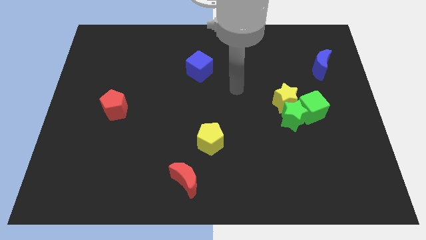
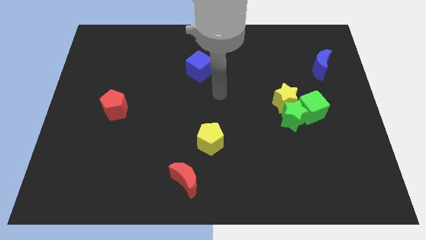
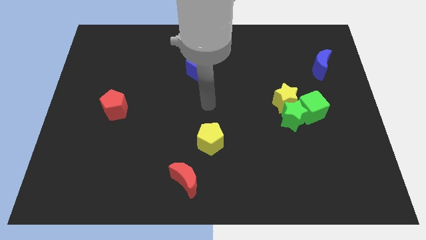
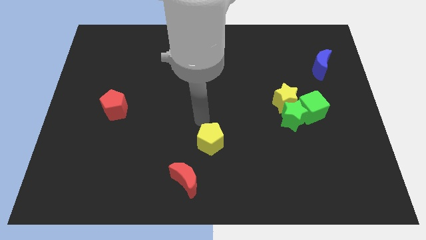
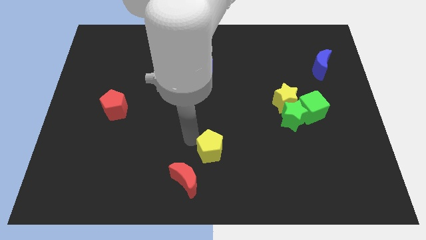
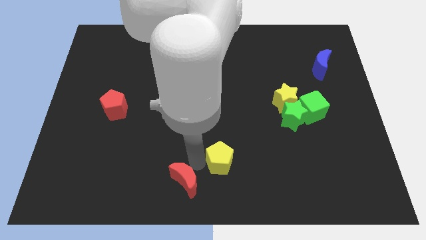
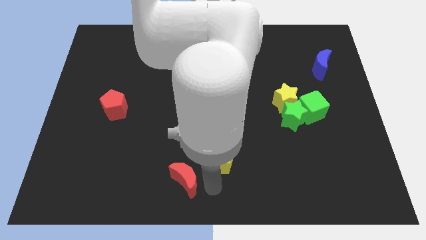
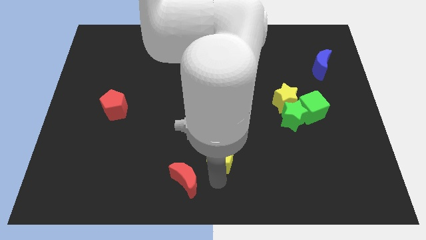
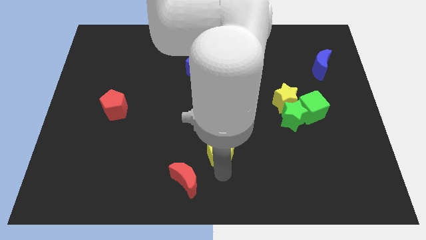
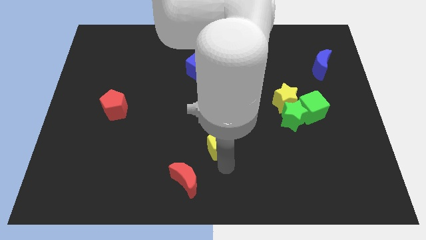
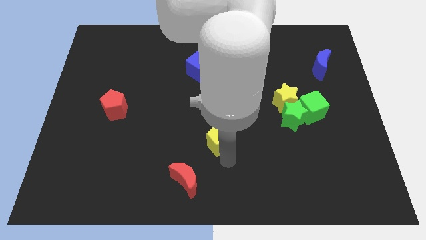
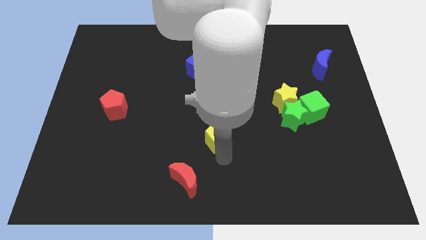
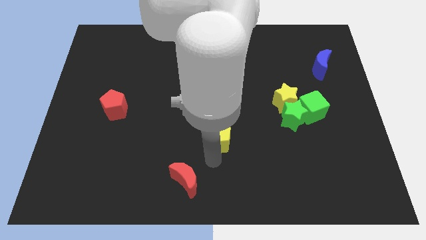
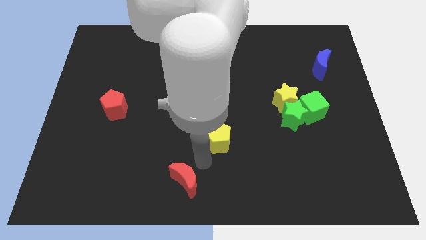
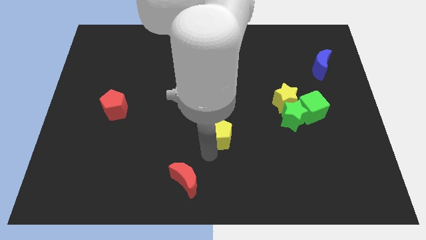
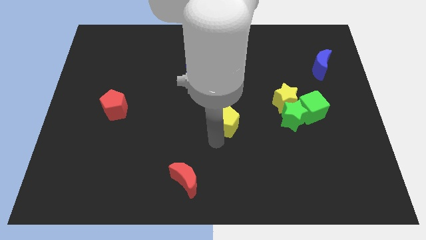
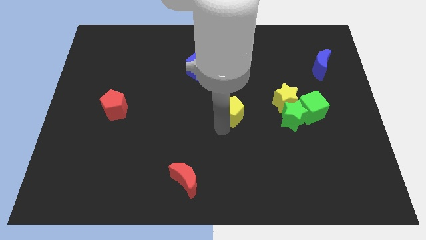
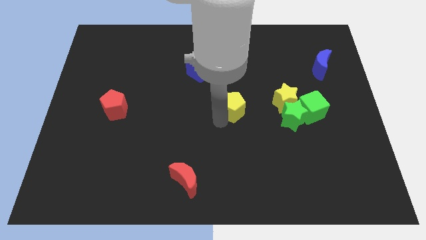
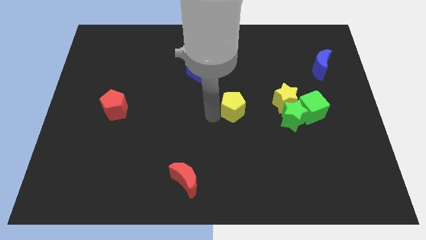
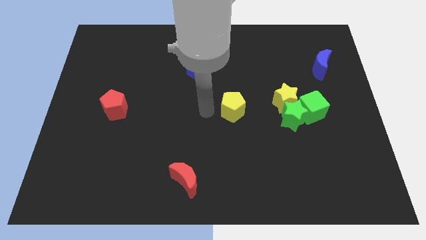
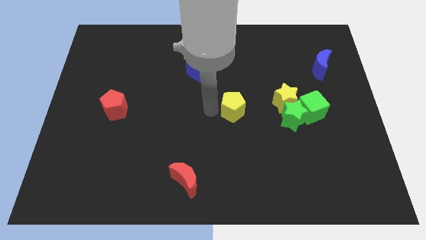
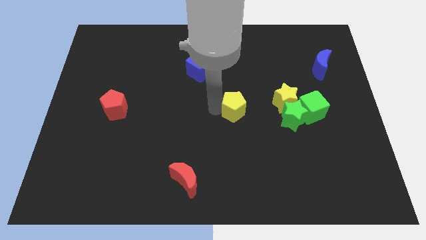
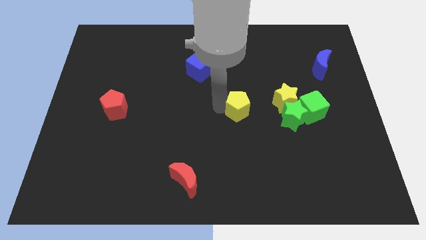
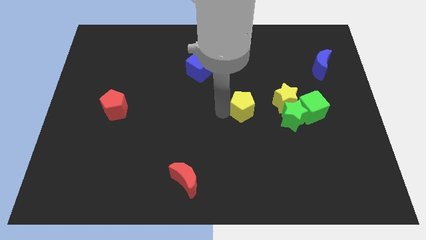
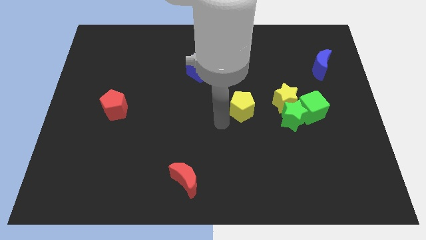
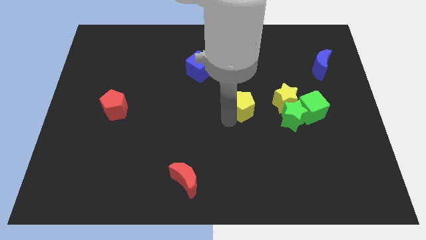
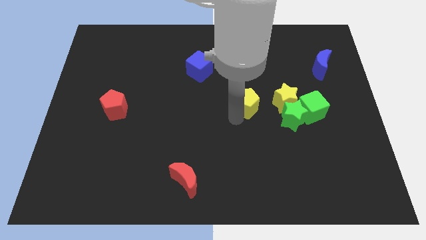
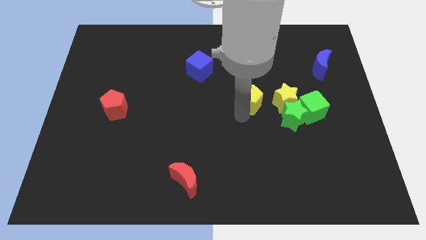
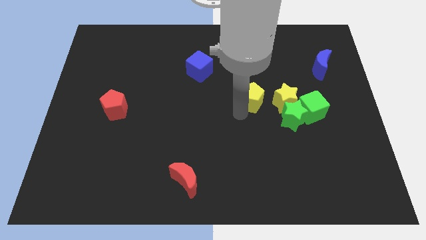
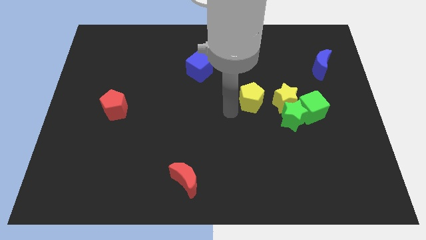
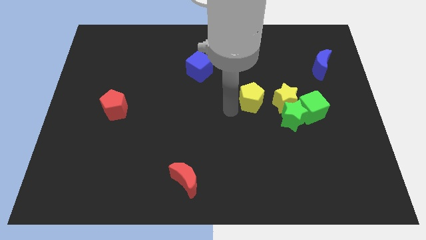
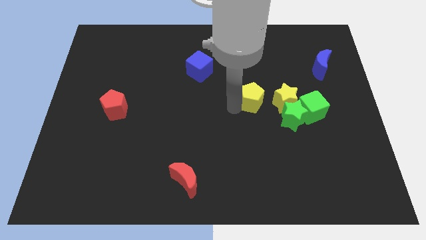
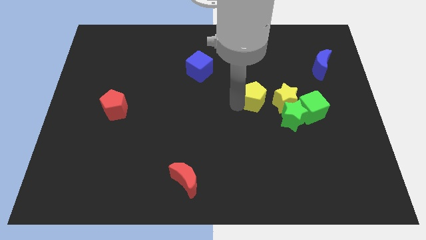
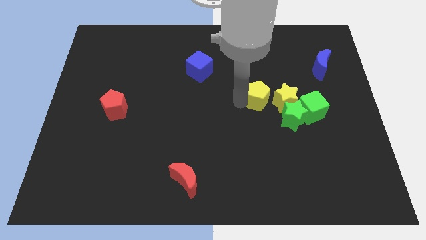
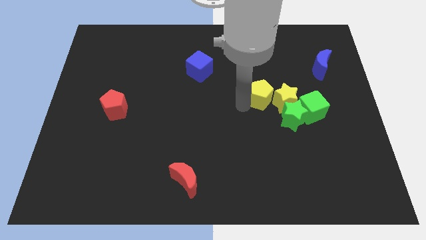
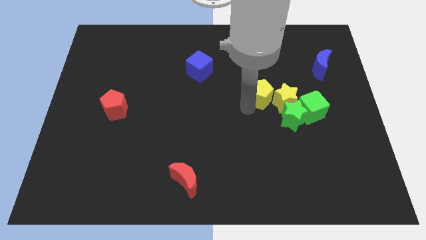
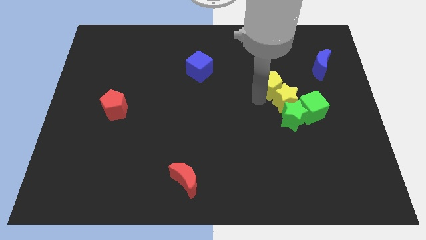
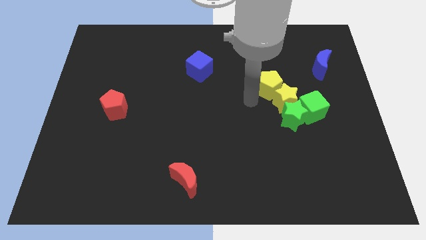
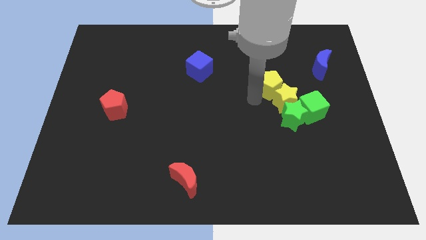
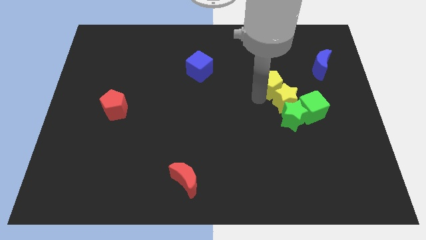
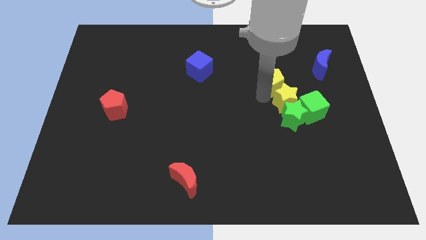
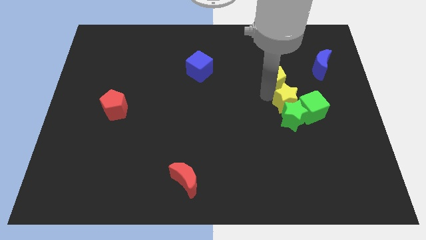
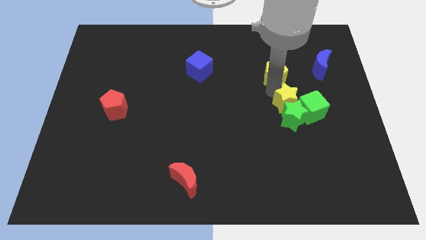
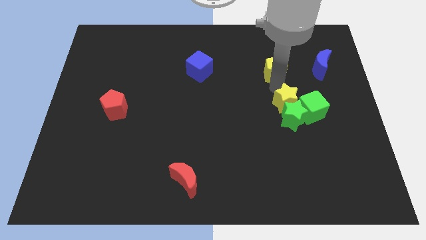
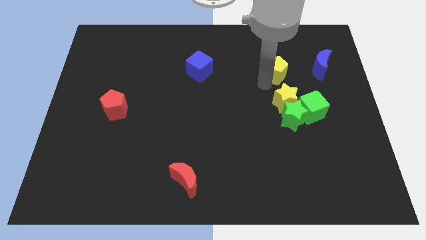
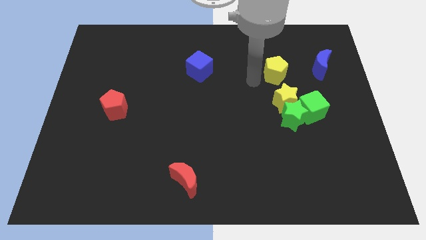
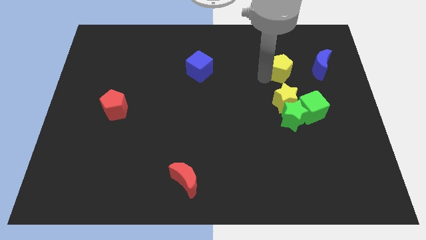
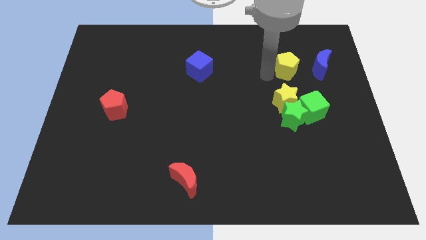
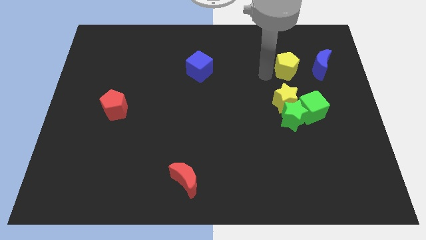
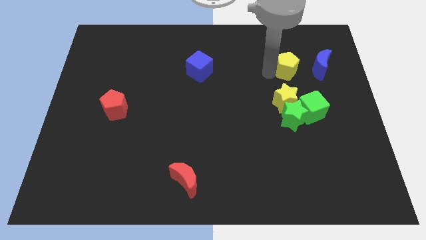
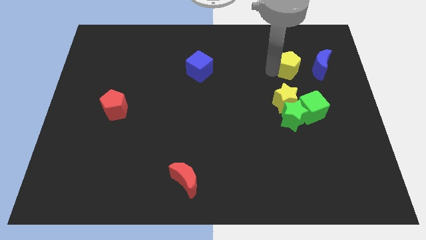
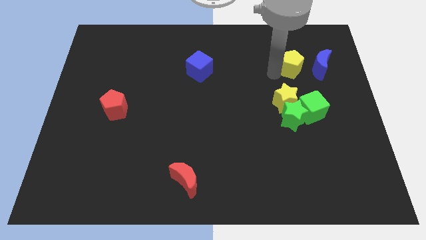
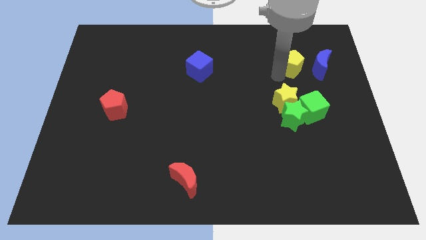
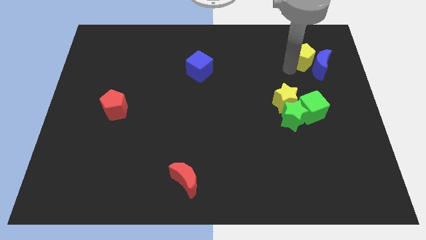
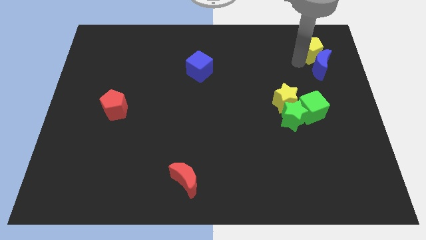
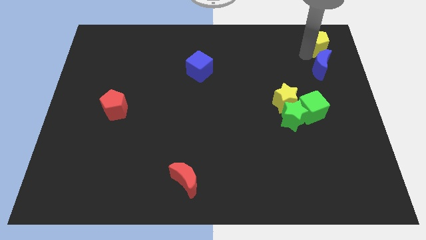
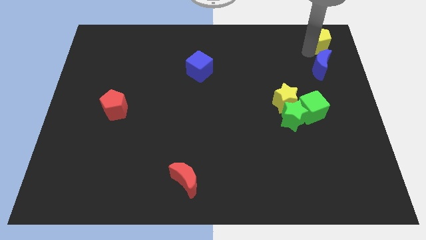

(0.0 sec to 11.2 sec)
slide the yellow pentagon to the top right
